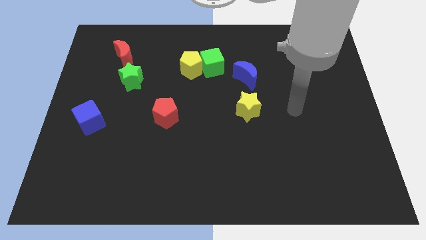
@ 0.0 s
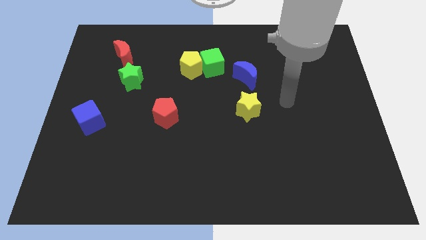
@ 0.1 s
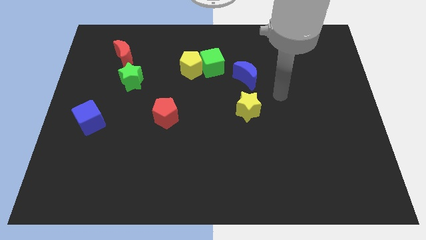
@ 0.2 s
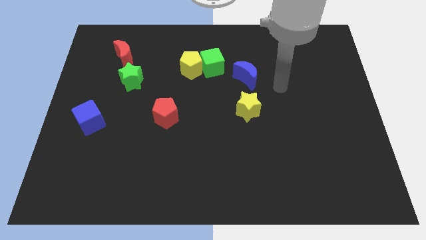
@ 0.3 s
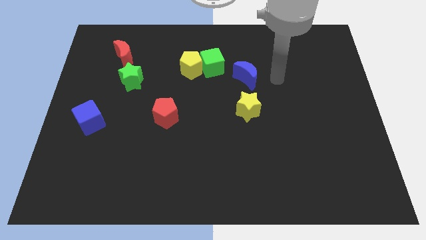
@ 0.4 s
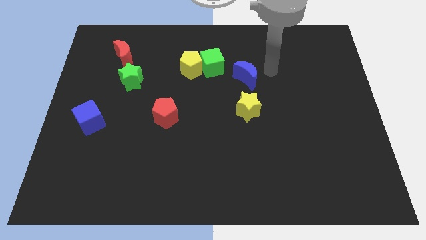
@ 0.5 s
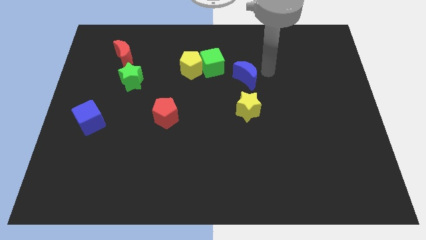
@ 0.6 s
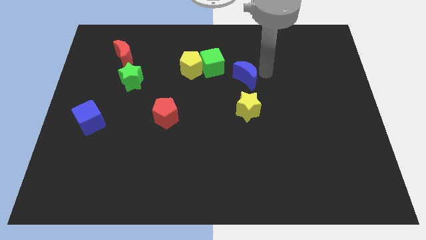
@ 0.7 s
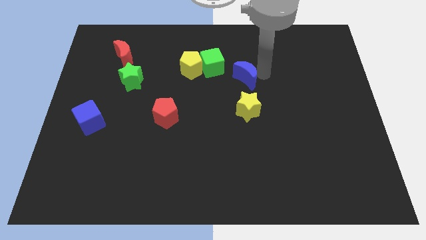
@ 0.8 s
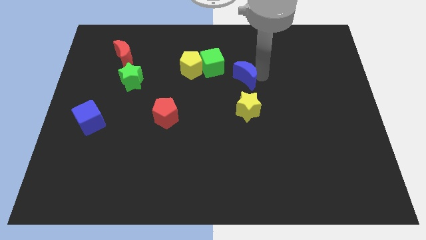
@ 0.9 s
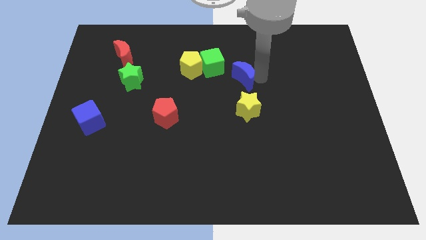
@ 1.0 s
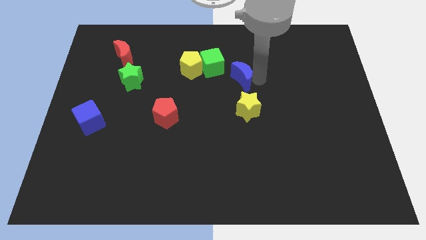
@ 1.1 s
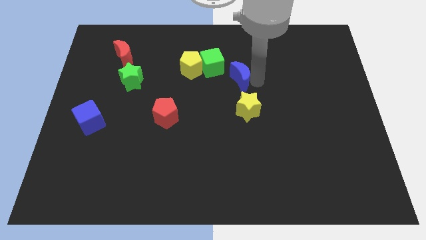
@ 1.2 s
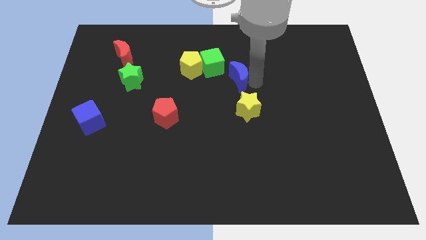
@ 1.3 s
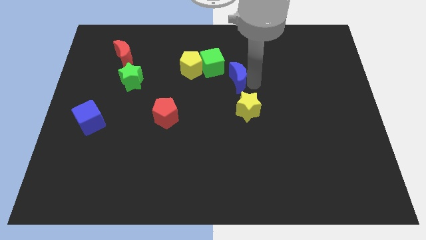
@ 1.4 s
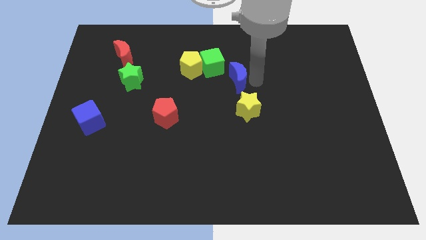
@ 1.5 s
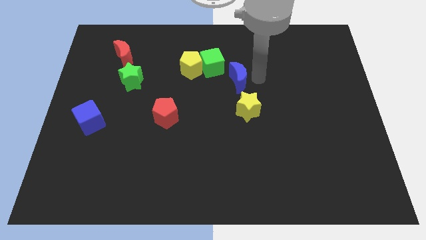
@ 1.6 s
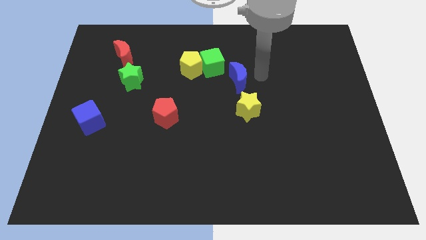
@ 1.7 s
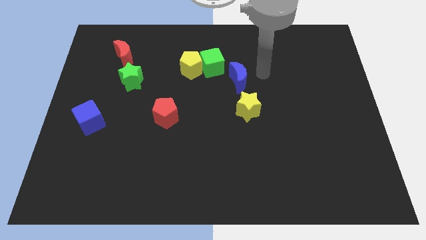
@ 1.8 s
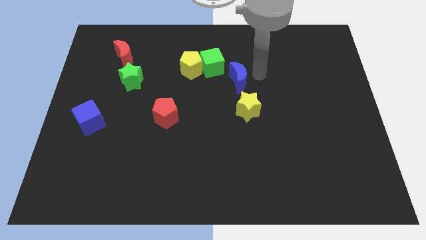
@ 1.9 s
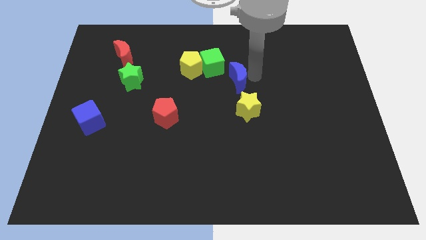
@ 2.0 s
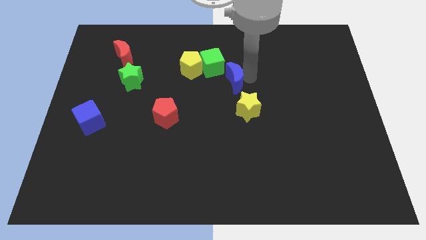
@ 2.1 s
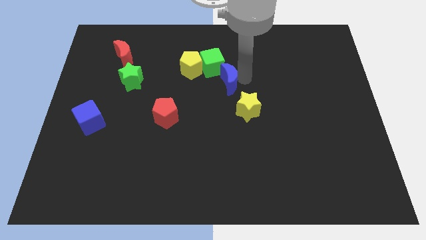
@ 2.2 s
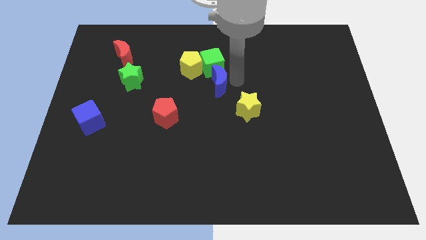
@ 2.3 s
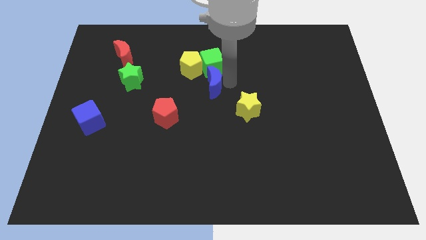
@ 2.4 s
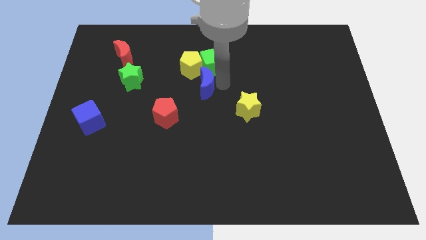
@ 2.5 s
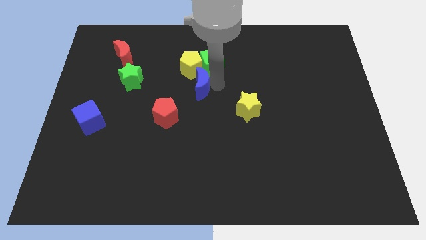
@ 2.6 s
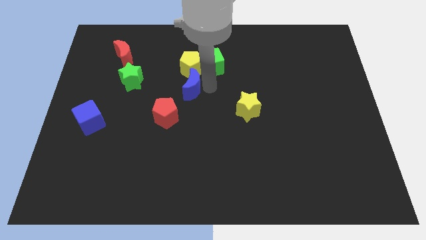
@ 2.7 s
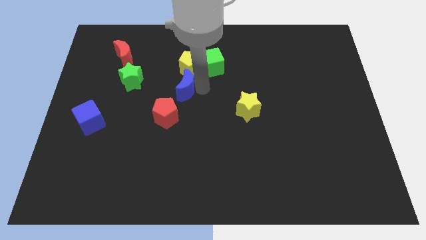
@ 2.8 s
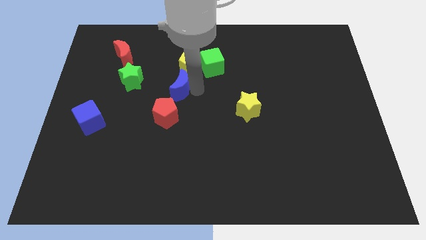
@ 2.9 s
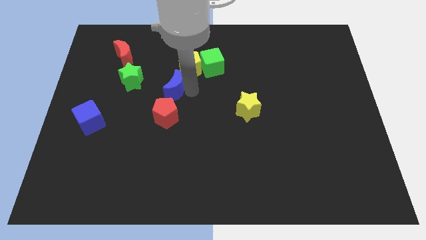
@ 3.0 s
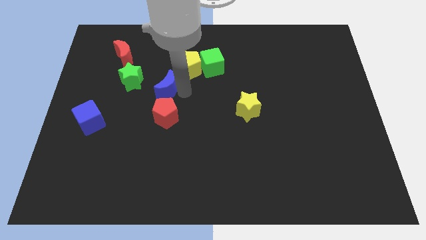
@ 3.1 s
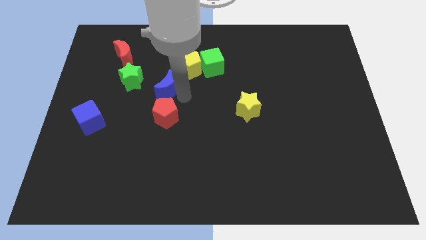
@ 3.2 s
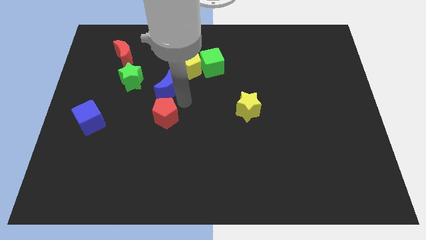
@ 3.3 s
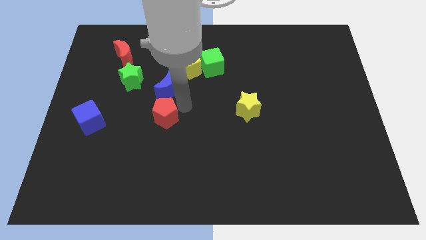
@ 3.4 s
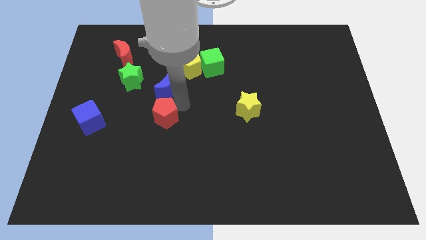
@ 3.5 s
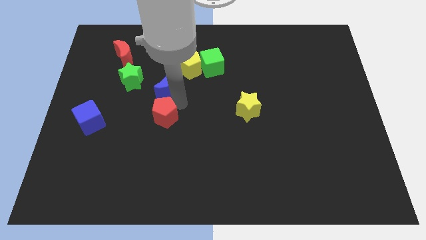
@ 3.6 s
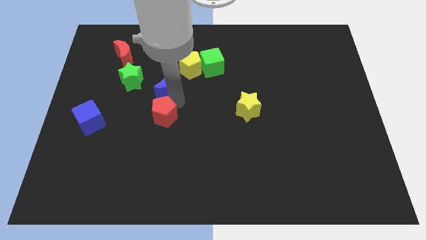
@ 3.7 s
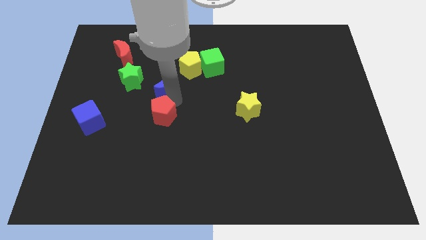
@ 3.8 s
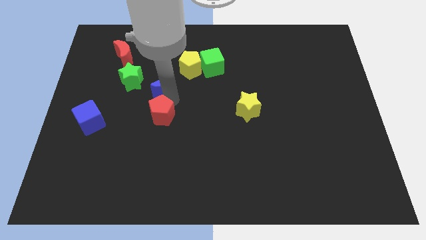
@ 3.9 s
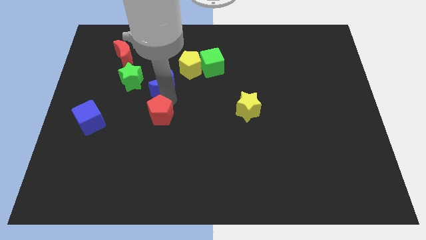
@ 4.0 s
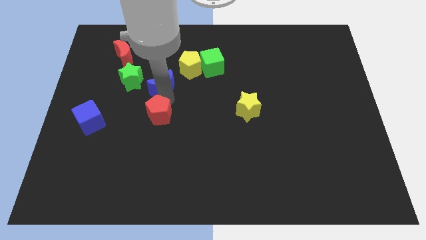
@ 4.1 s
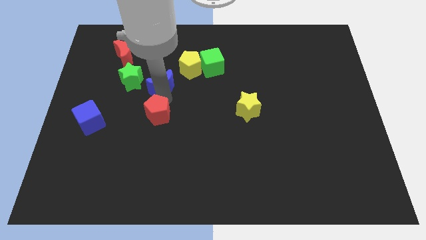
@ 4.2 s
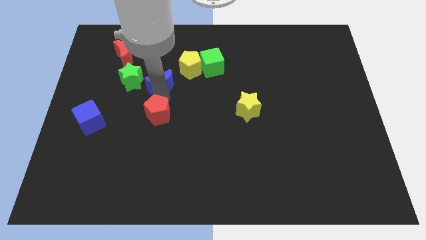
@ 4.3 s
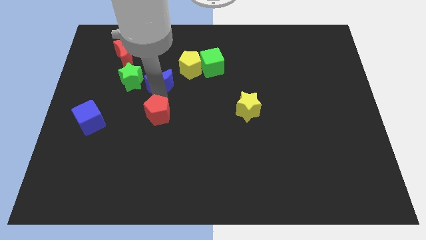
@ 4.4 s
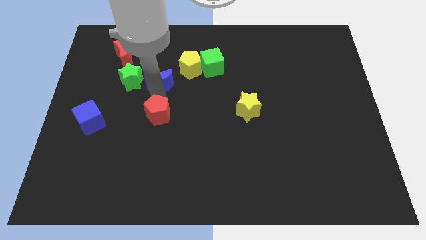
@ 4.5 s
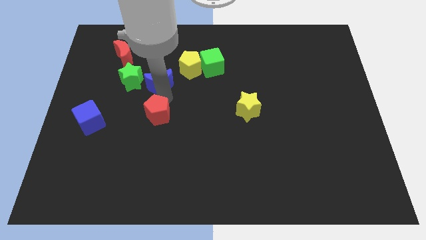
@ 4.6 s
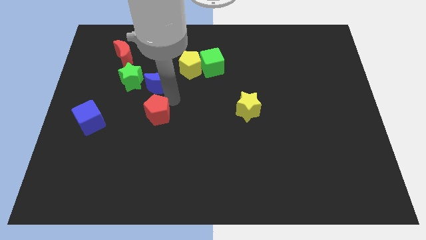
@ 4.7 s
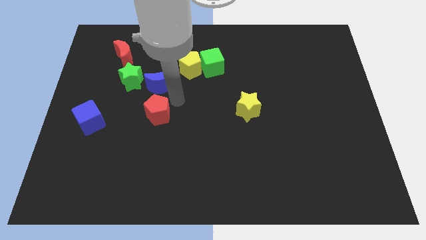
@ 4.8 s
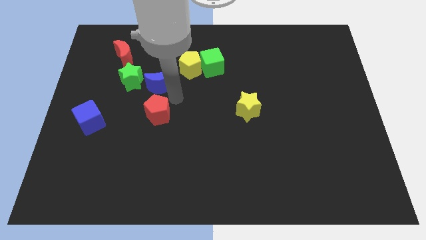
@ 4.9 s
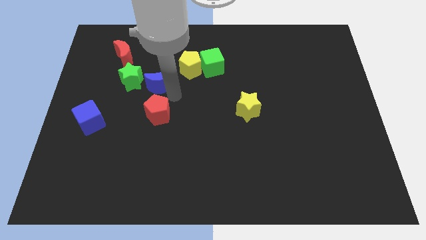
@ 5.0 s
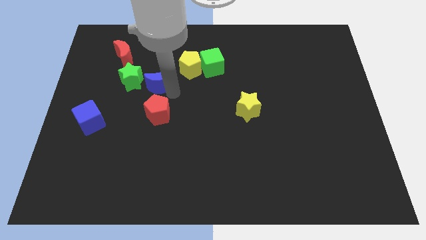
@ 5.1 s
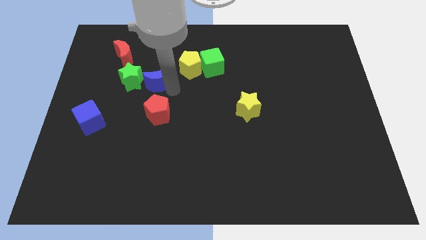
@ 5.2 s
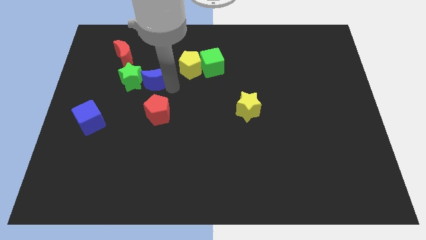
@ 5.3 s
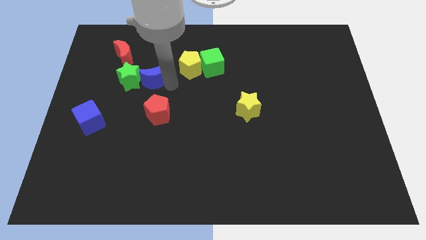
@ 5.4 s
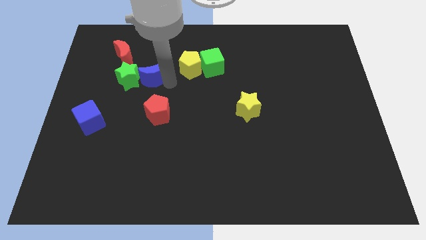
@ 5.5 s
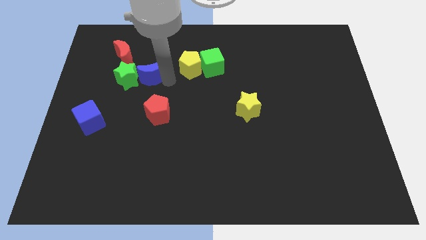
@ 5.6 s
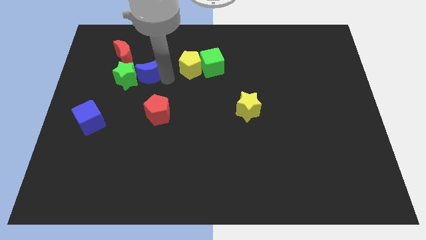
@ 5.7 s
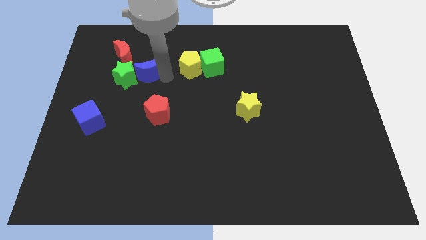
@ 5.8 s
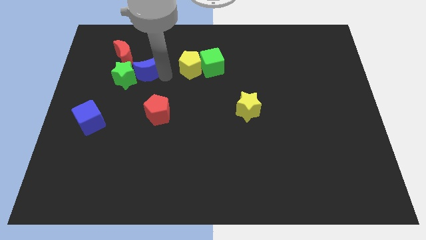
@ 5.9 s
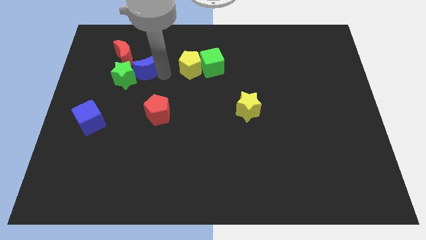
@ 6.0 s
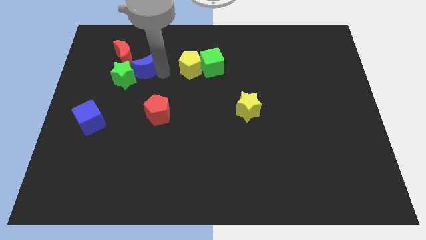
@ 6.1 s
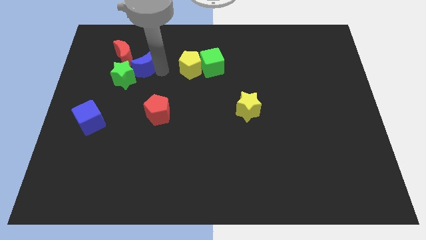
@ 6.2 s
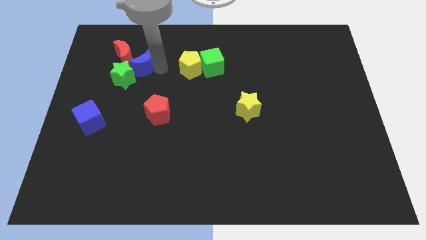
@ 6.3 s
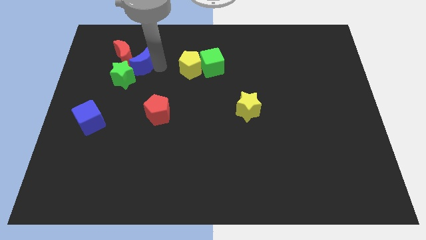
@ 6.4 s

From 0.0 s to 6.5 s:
push the blue moon to the red moon
